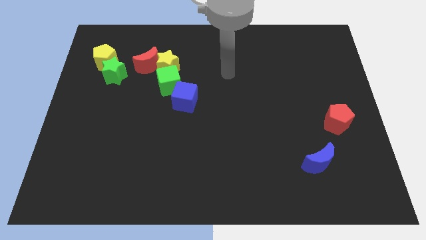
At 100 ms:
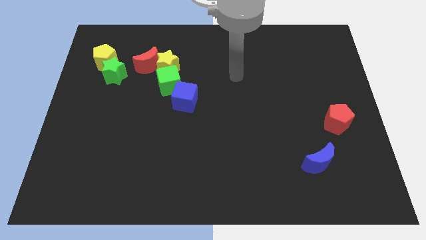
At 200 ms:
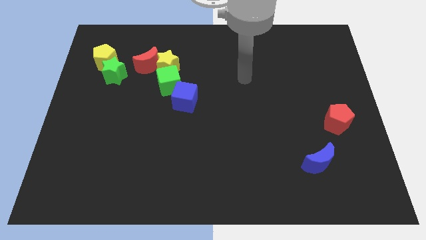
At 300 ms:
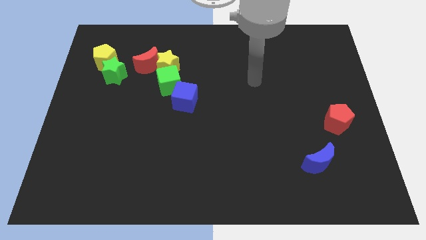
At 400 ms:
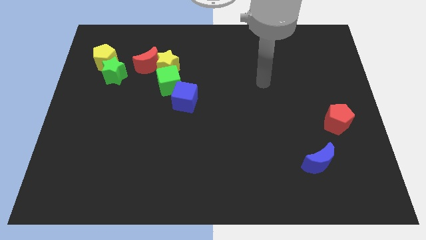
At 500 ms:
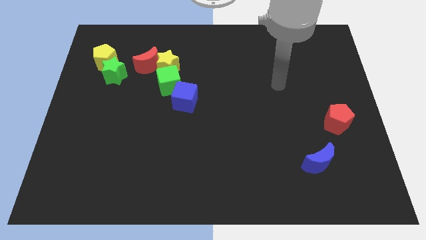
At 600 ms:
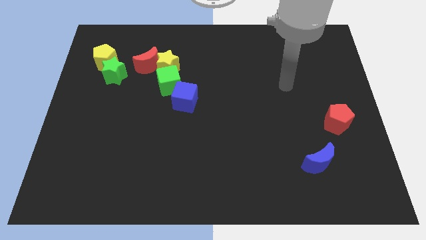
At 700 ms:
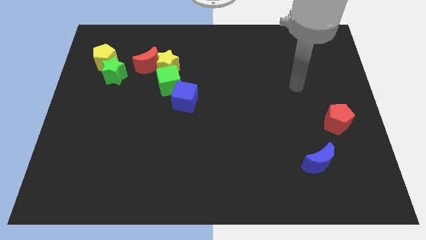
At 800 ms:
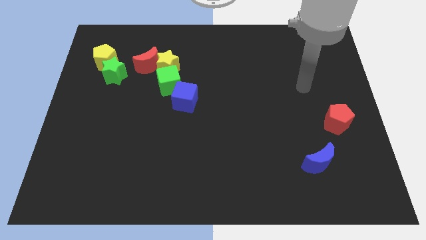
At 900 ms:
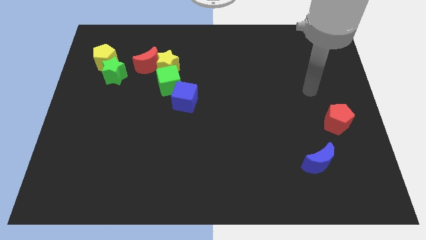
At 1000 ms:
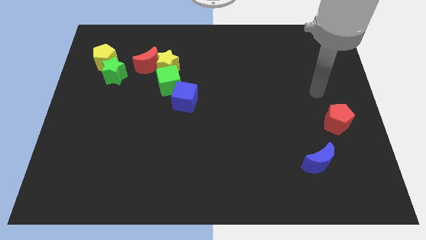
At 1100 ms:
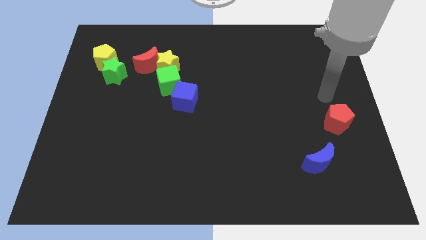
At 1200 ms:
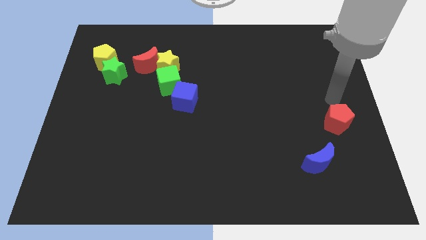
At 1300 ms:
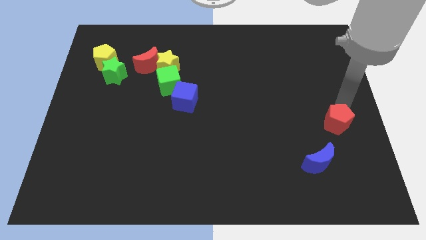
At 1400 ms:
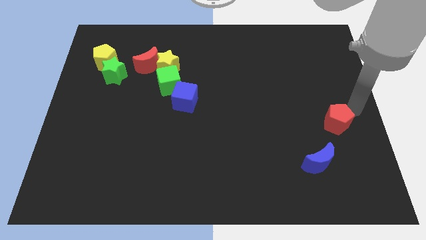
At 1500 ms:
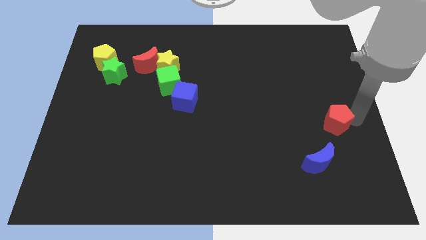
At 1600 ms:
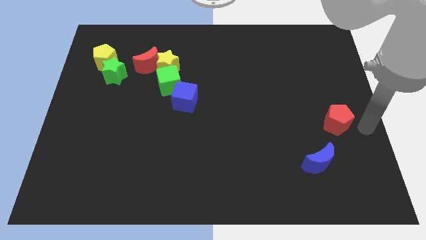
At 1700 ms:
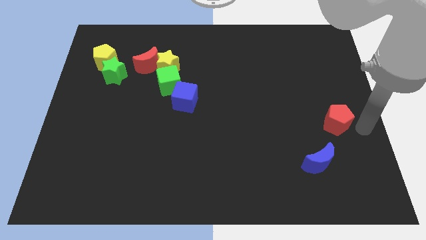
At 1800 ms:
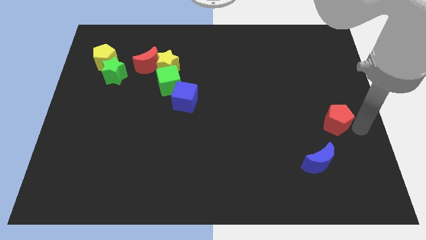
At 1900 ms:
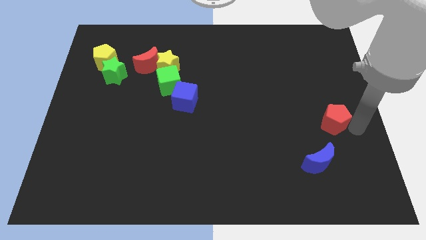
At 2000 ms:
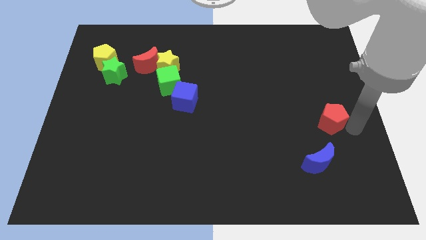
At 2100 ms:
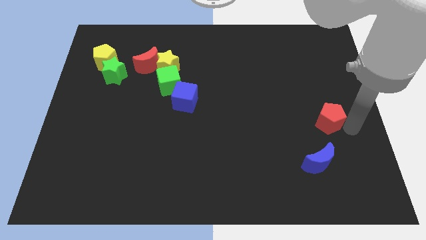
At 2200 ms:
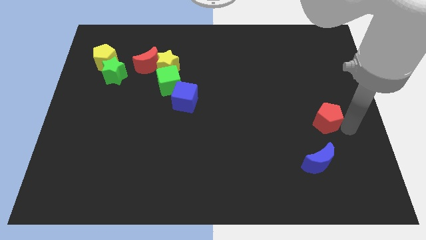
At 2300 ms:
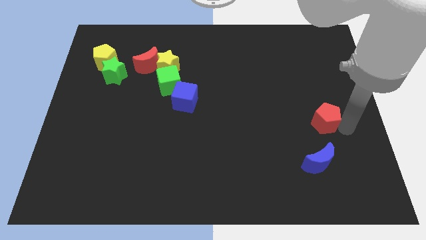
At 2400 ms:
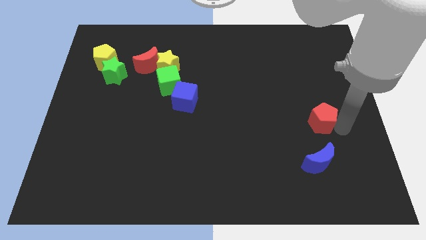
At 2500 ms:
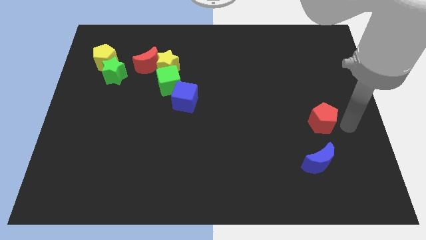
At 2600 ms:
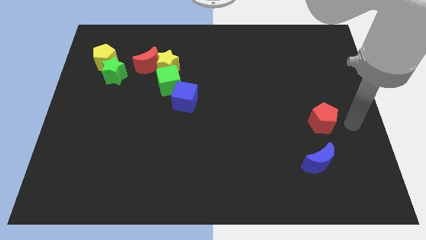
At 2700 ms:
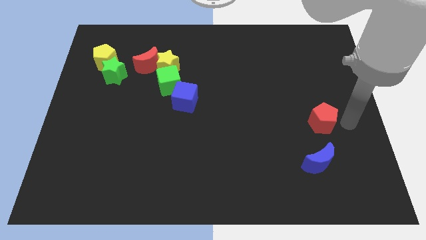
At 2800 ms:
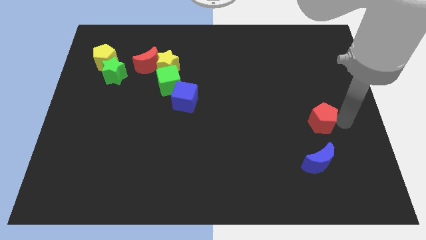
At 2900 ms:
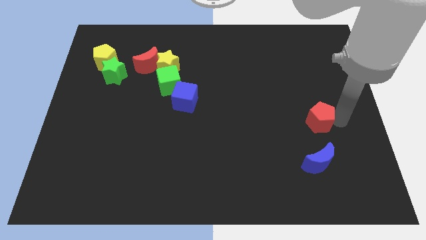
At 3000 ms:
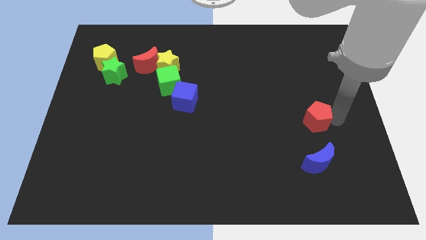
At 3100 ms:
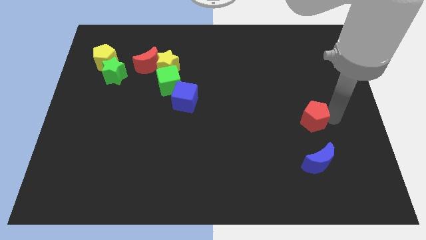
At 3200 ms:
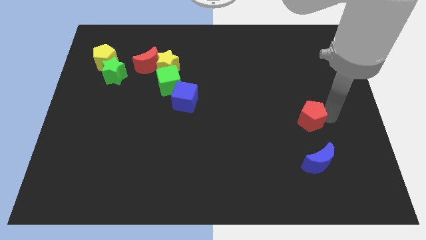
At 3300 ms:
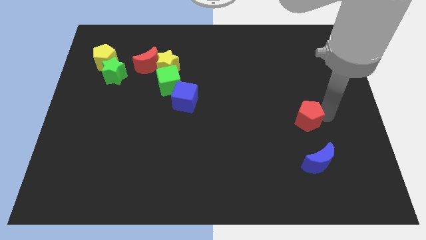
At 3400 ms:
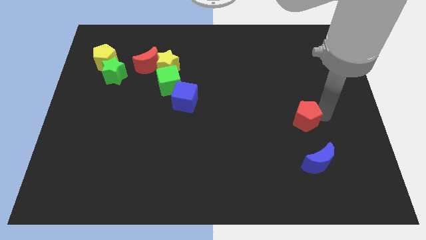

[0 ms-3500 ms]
move the red pentagon a little left

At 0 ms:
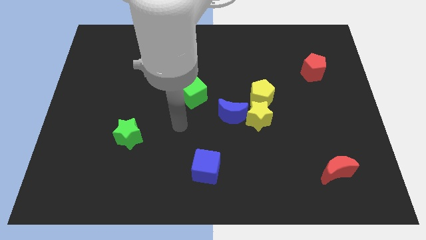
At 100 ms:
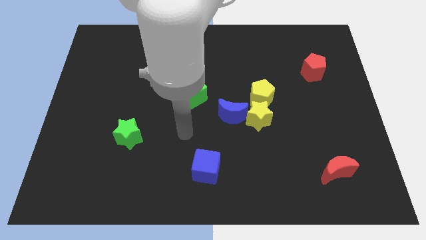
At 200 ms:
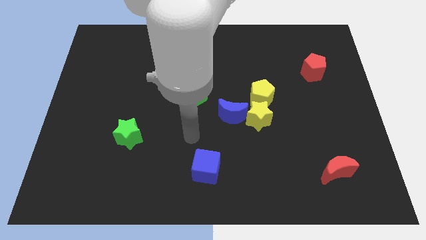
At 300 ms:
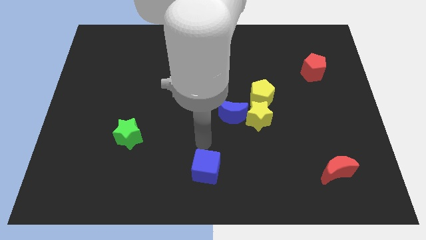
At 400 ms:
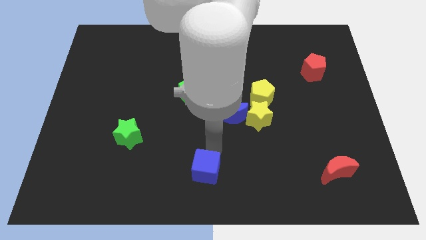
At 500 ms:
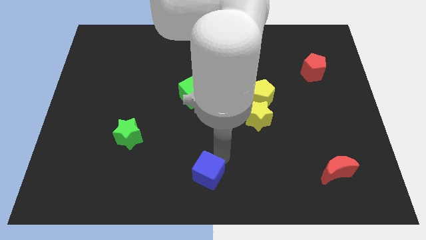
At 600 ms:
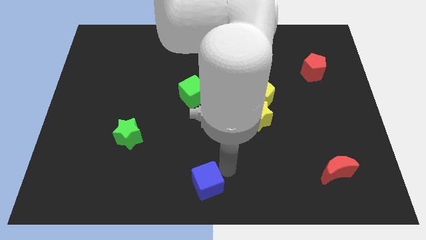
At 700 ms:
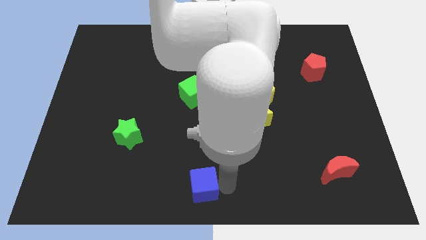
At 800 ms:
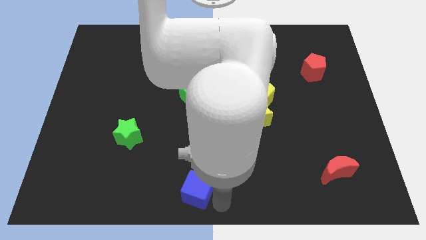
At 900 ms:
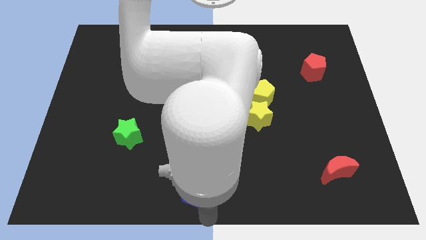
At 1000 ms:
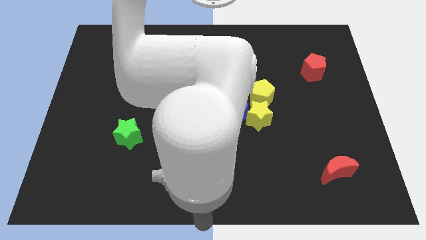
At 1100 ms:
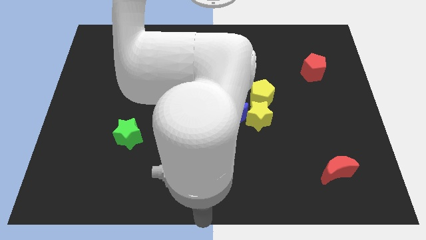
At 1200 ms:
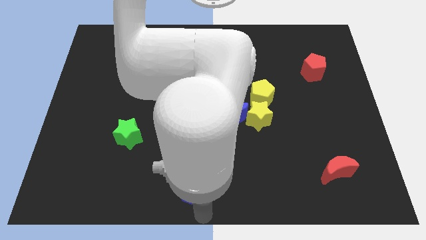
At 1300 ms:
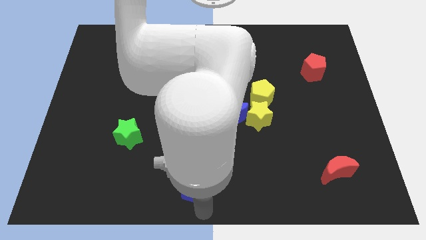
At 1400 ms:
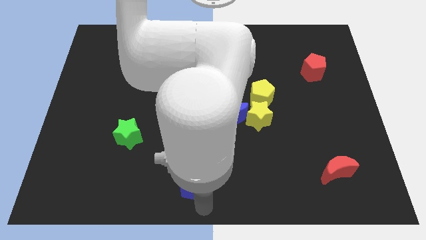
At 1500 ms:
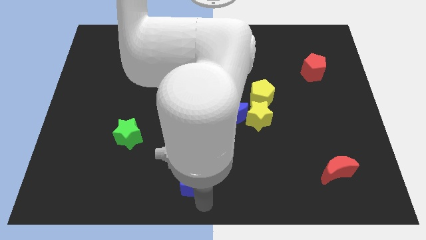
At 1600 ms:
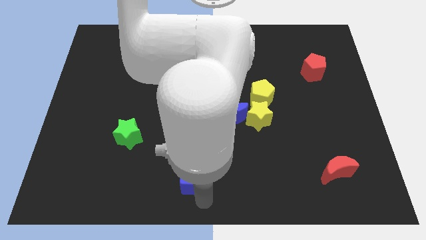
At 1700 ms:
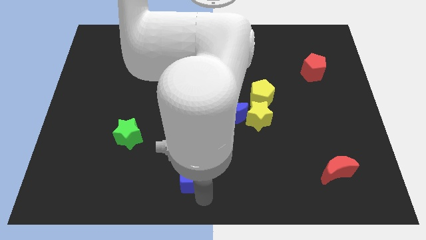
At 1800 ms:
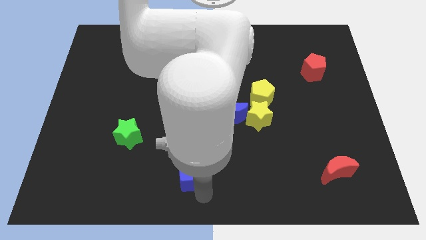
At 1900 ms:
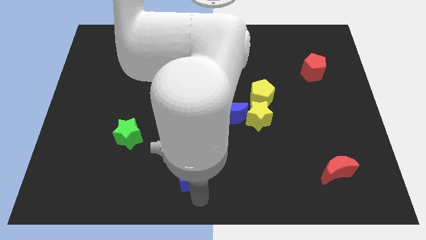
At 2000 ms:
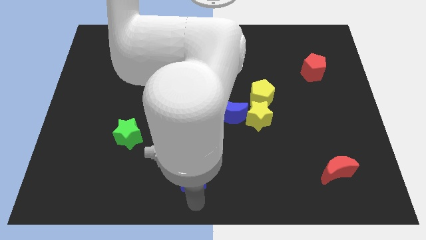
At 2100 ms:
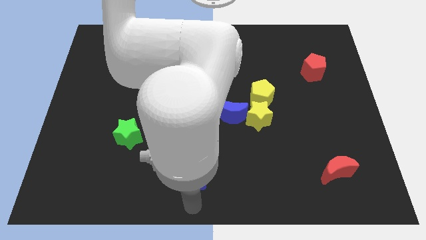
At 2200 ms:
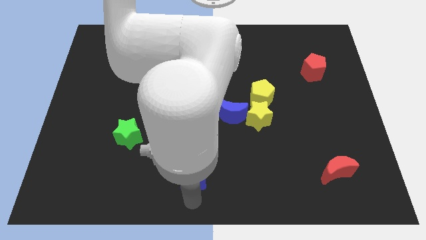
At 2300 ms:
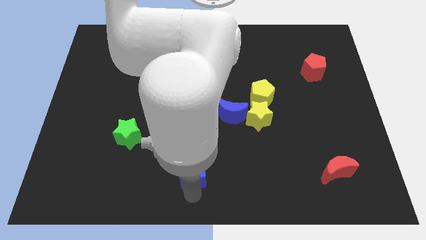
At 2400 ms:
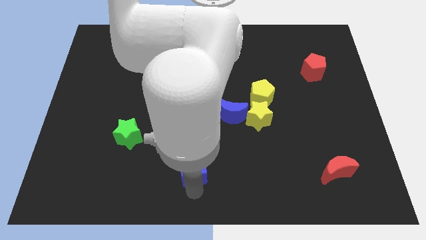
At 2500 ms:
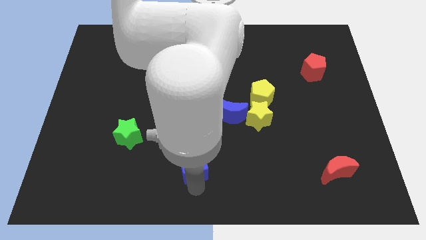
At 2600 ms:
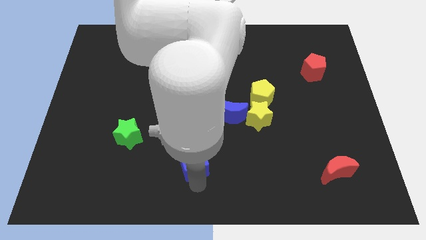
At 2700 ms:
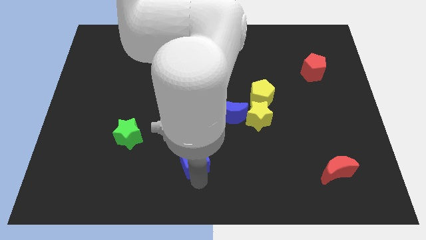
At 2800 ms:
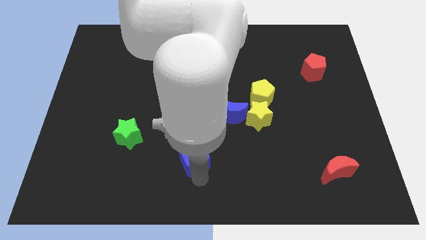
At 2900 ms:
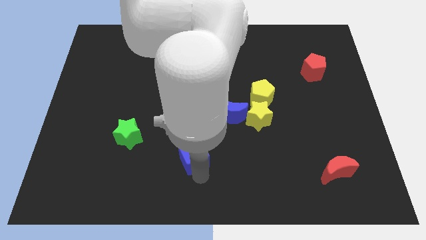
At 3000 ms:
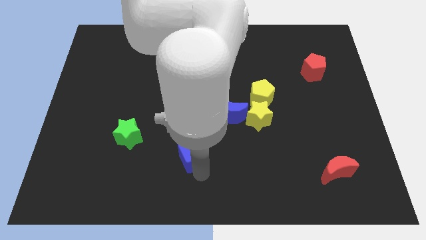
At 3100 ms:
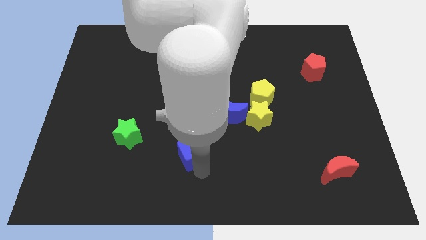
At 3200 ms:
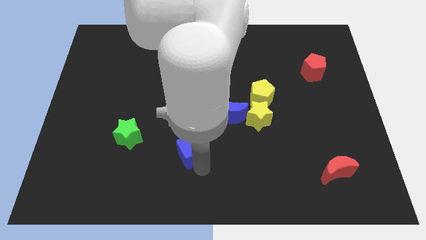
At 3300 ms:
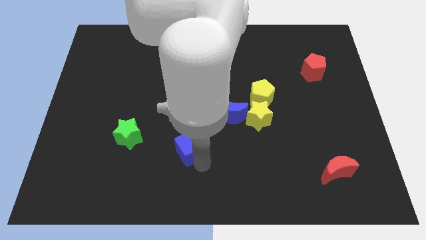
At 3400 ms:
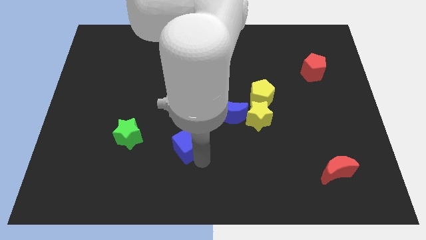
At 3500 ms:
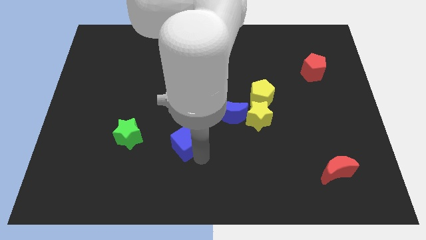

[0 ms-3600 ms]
push the blue cube diagonally upwards and left a bit

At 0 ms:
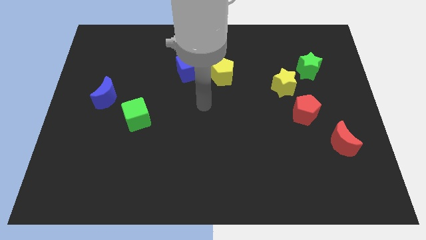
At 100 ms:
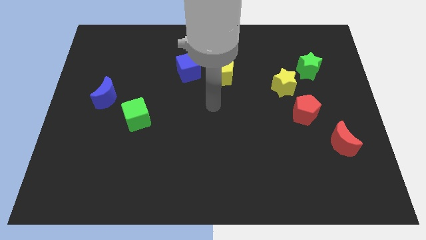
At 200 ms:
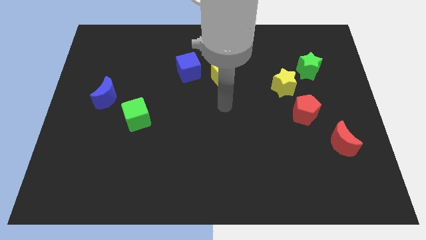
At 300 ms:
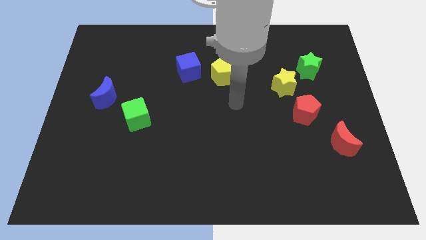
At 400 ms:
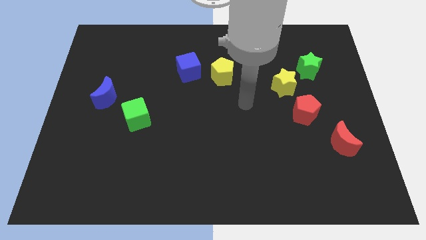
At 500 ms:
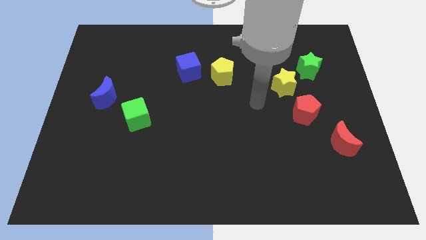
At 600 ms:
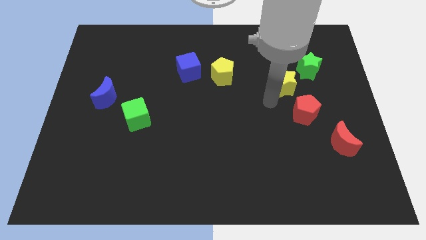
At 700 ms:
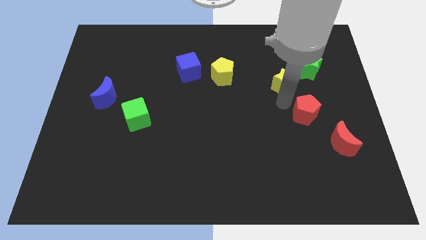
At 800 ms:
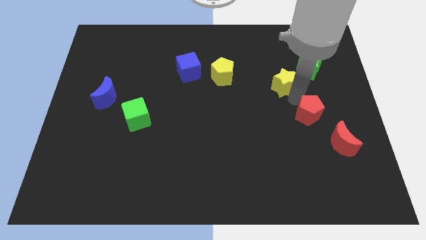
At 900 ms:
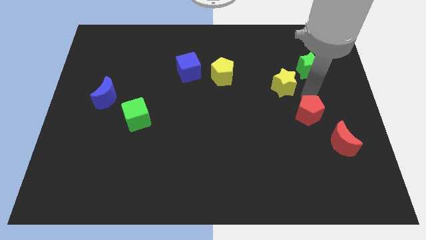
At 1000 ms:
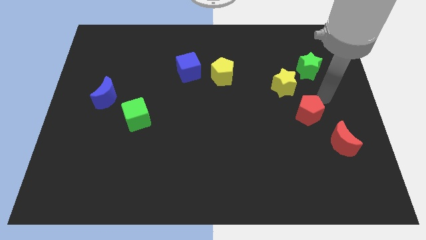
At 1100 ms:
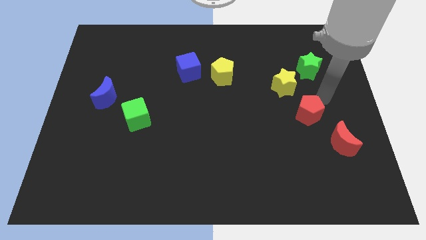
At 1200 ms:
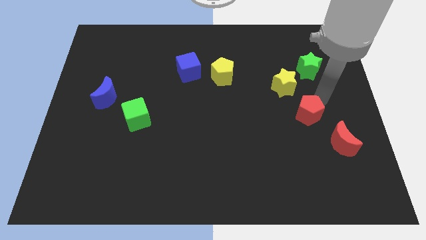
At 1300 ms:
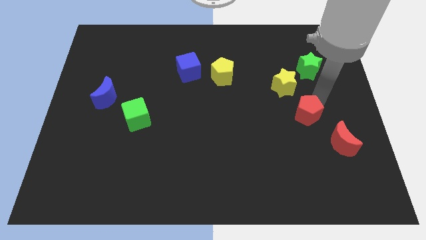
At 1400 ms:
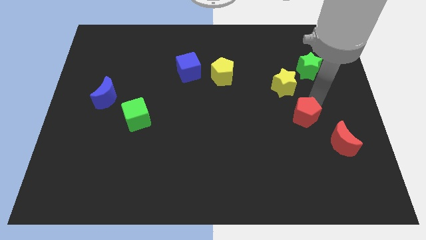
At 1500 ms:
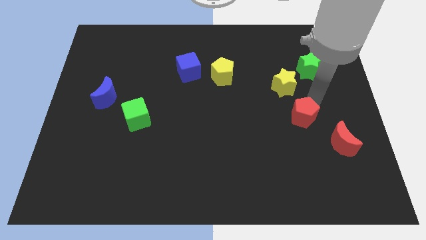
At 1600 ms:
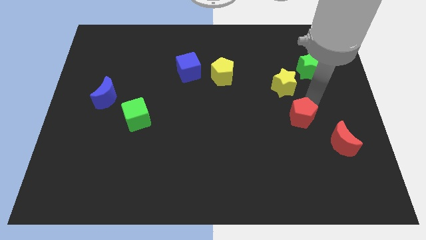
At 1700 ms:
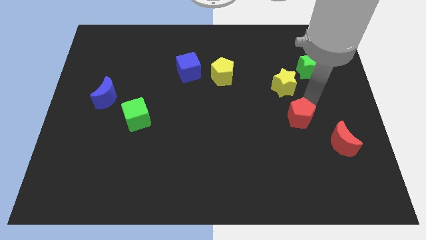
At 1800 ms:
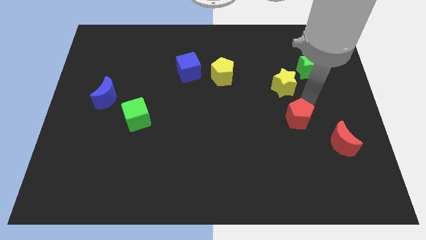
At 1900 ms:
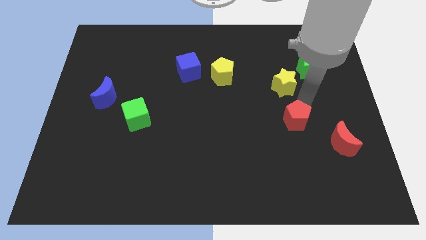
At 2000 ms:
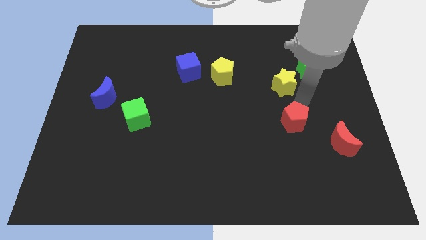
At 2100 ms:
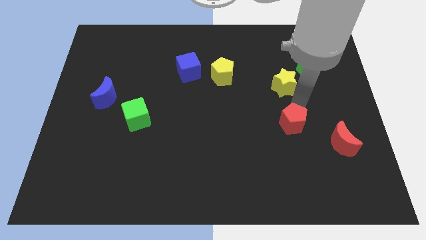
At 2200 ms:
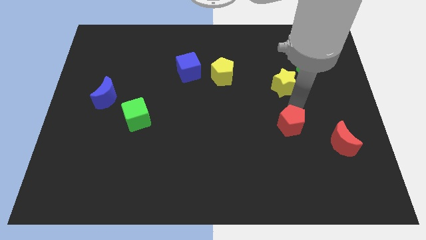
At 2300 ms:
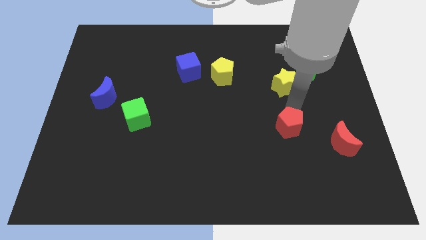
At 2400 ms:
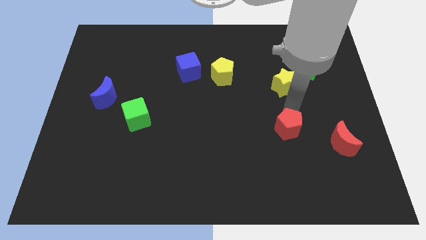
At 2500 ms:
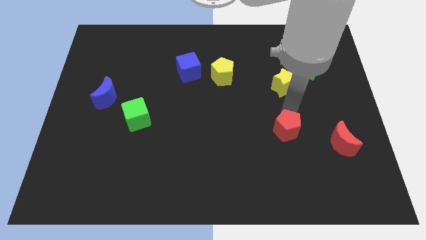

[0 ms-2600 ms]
slightly slide the red pentagon down and to the left diagonally
